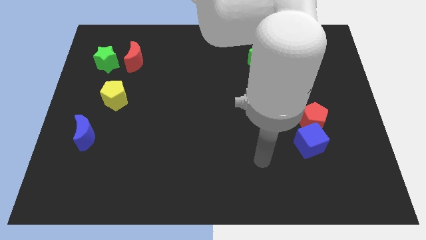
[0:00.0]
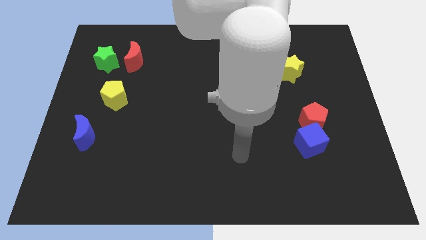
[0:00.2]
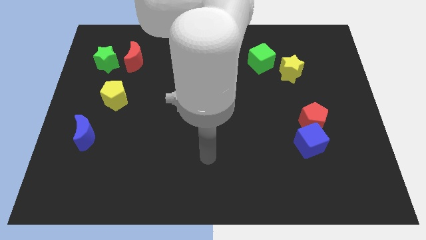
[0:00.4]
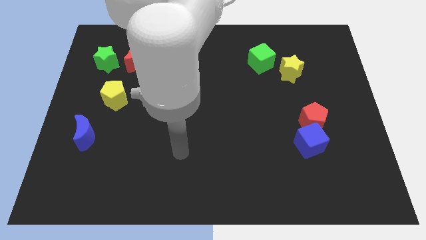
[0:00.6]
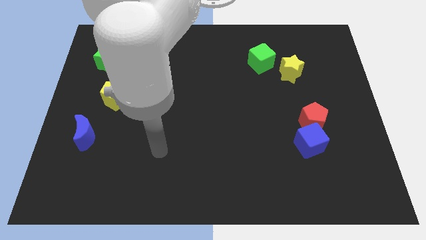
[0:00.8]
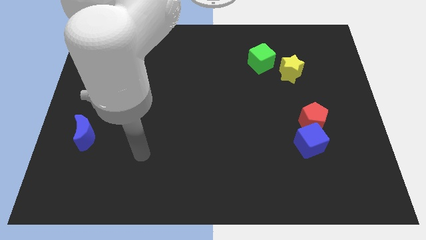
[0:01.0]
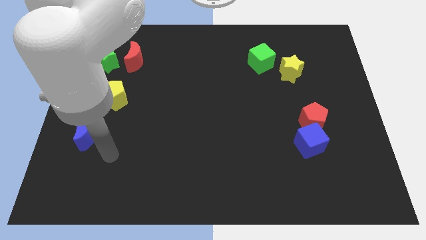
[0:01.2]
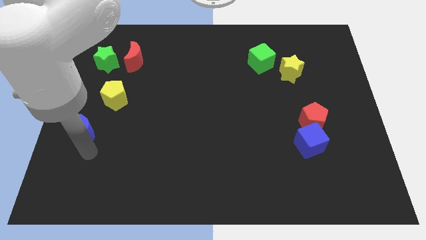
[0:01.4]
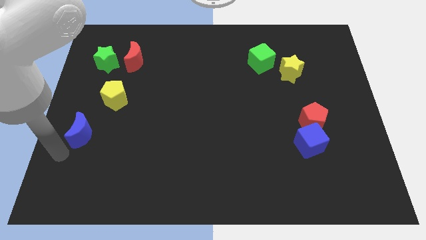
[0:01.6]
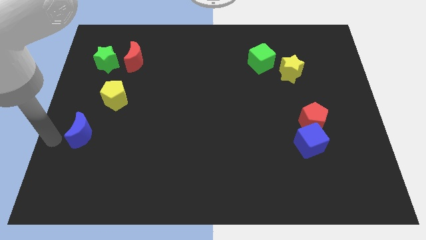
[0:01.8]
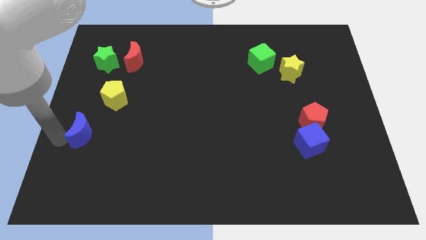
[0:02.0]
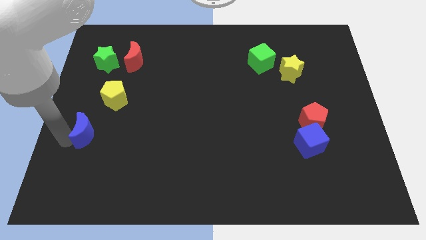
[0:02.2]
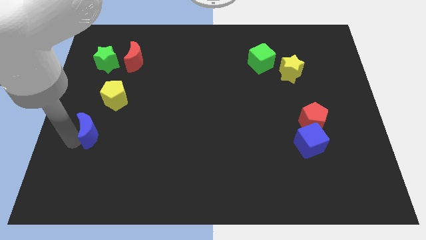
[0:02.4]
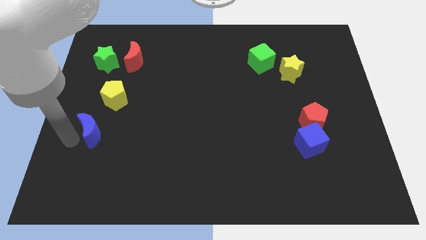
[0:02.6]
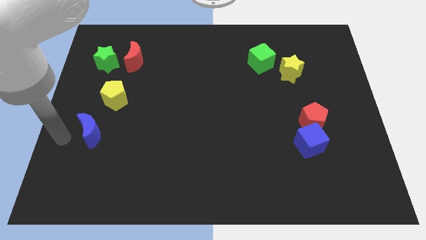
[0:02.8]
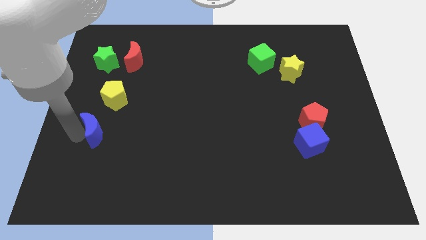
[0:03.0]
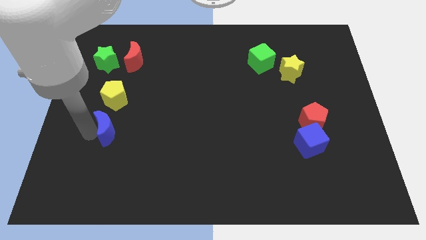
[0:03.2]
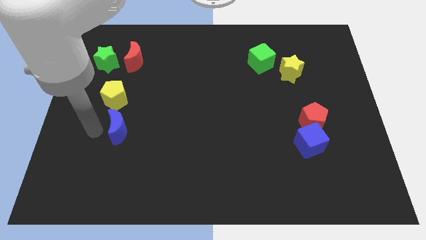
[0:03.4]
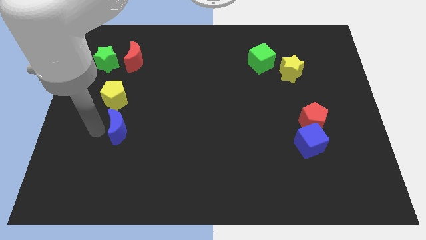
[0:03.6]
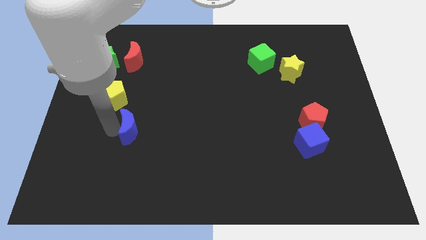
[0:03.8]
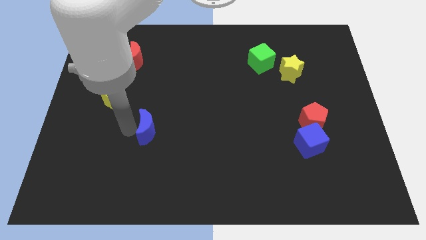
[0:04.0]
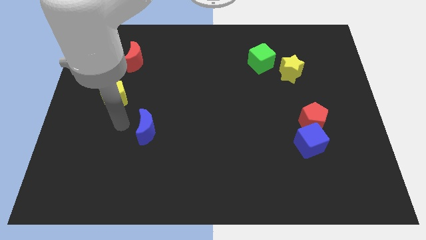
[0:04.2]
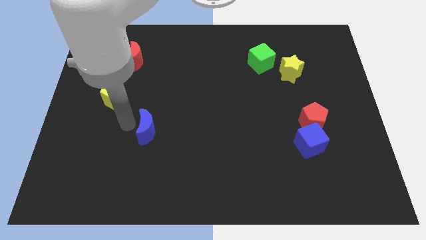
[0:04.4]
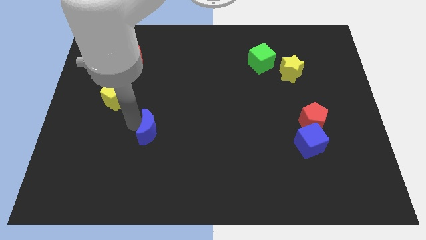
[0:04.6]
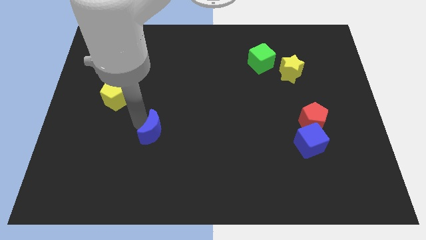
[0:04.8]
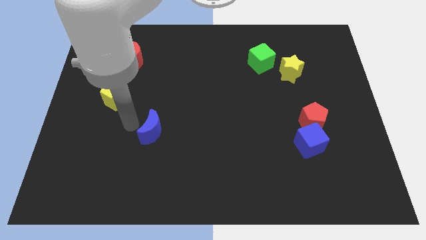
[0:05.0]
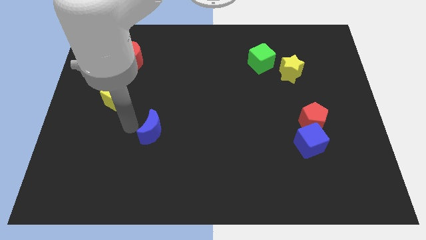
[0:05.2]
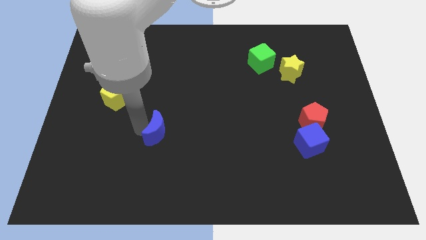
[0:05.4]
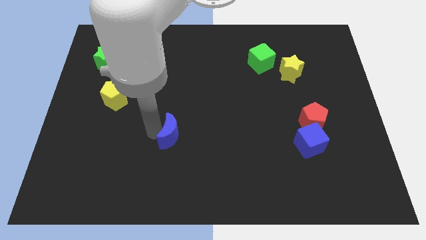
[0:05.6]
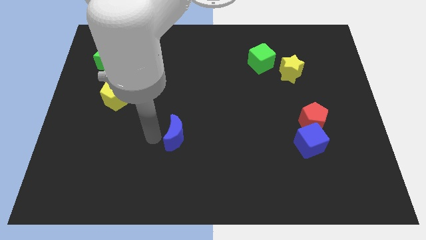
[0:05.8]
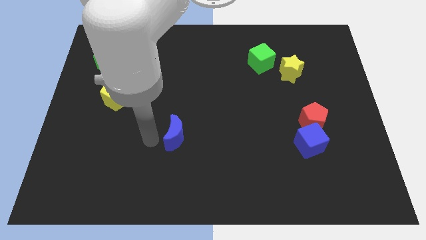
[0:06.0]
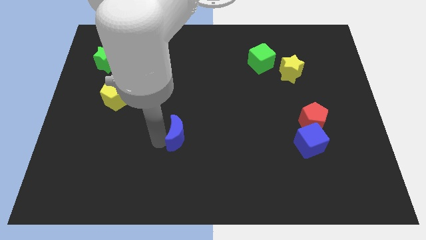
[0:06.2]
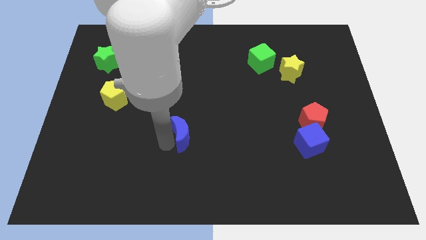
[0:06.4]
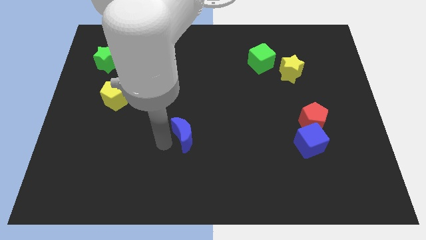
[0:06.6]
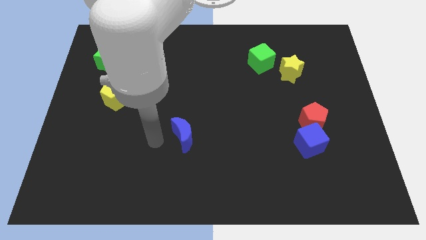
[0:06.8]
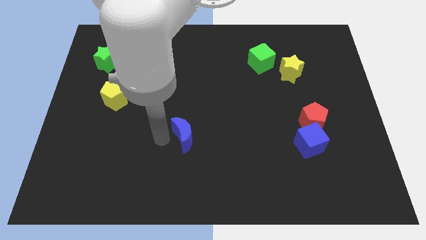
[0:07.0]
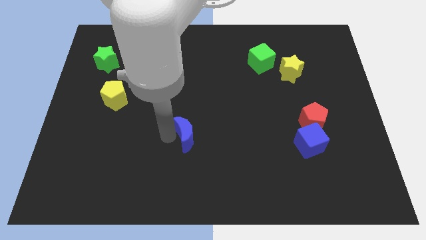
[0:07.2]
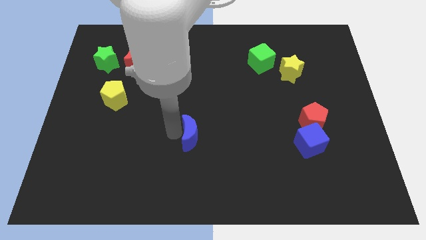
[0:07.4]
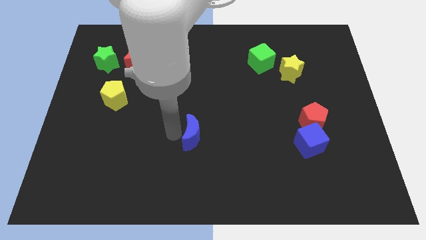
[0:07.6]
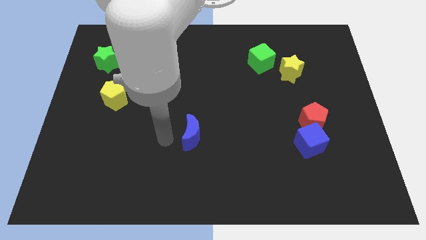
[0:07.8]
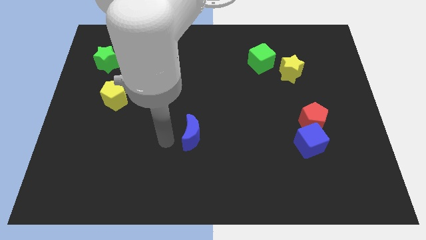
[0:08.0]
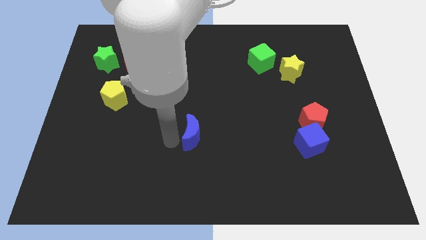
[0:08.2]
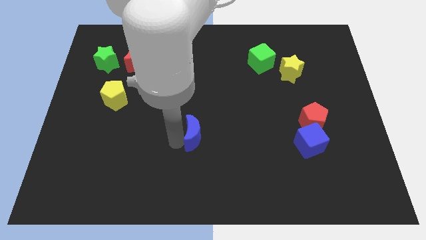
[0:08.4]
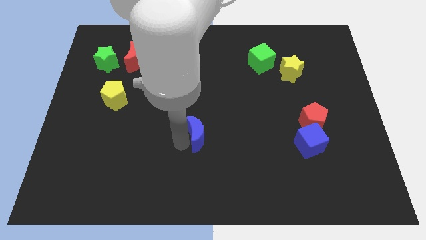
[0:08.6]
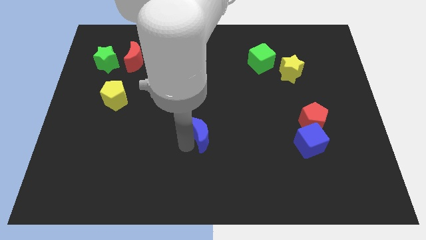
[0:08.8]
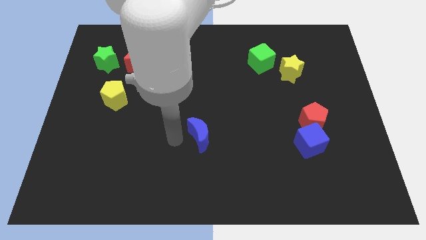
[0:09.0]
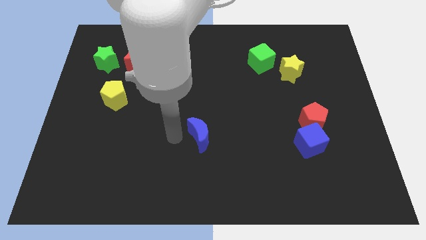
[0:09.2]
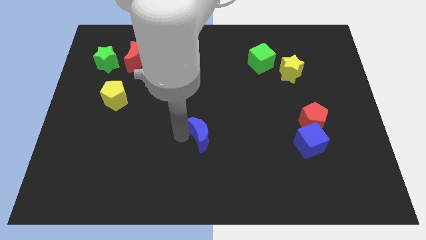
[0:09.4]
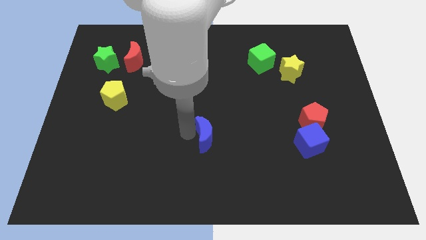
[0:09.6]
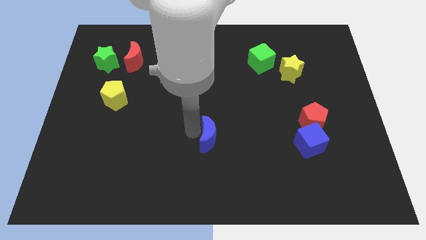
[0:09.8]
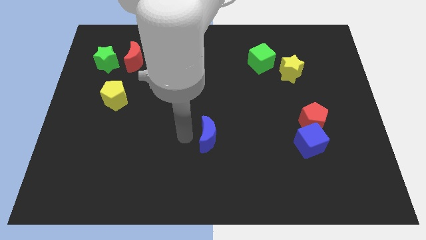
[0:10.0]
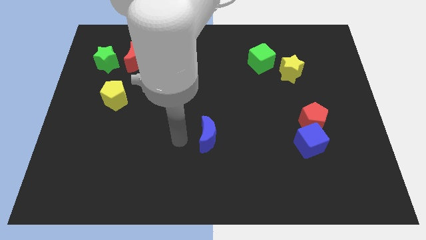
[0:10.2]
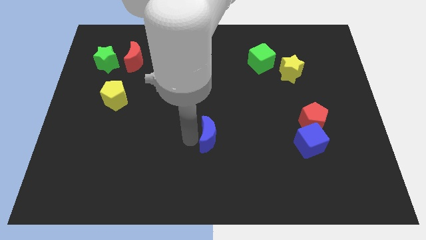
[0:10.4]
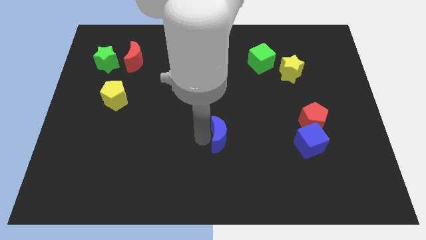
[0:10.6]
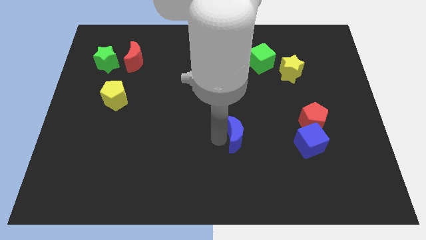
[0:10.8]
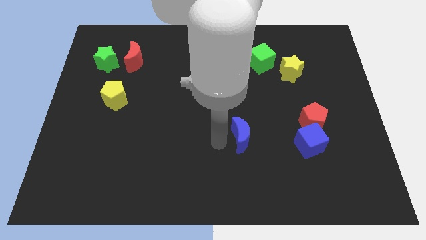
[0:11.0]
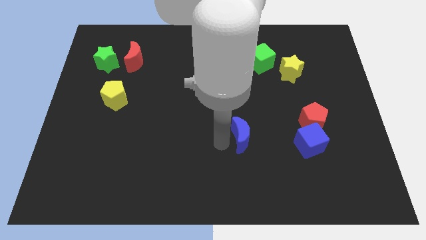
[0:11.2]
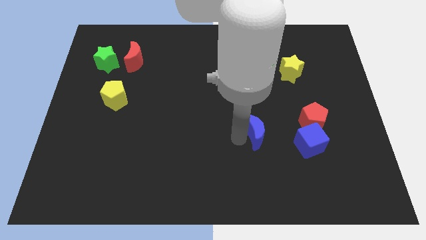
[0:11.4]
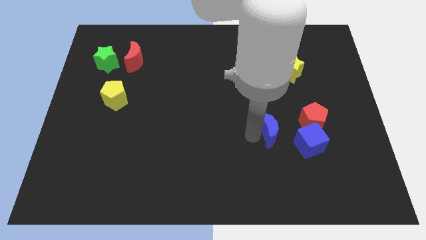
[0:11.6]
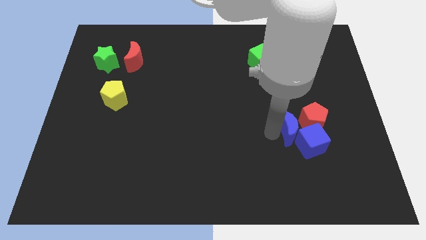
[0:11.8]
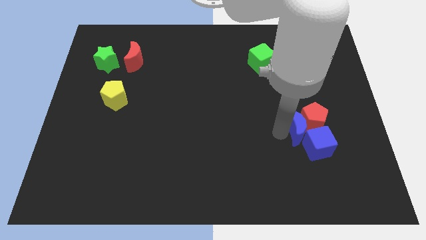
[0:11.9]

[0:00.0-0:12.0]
put the blue moon next to the red pentagon
